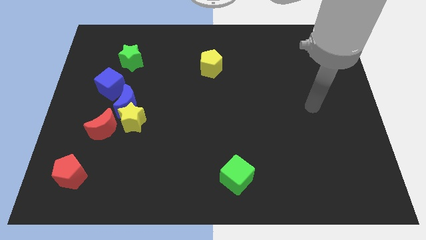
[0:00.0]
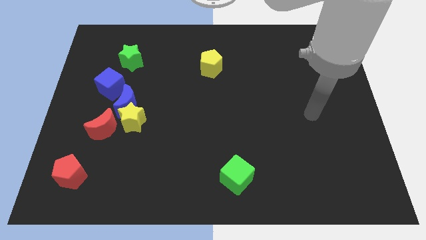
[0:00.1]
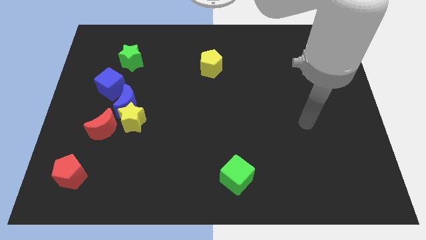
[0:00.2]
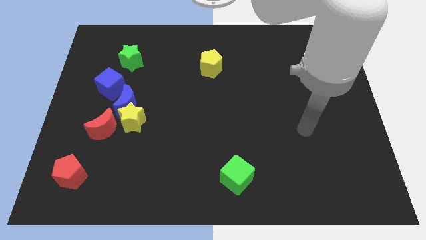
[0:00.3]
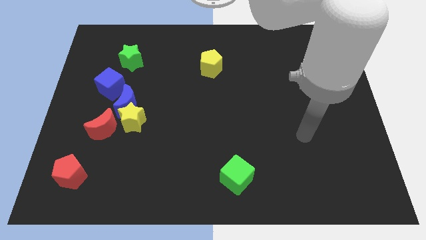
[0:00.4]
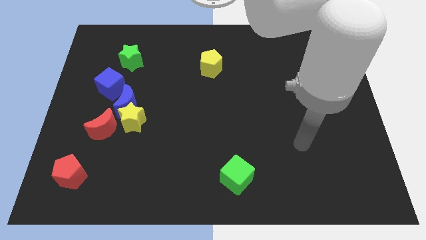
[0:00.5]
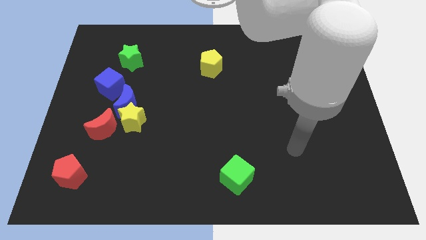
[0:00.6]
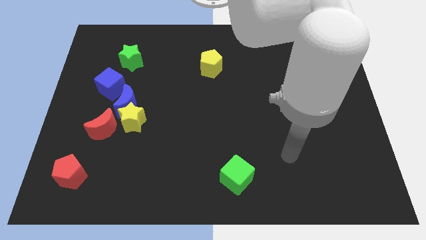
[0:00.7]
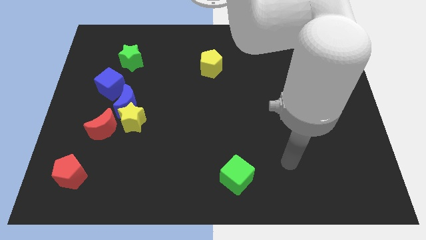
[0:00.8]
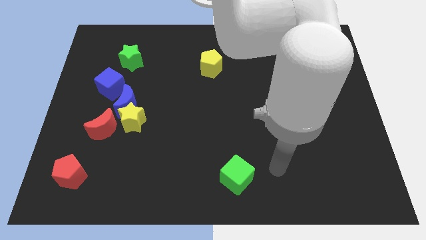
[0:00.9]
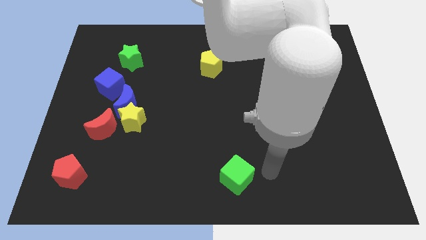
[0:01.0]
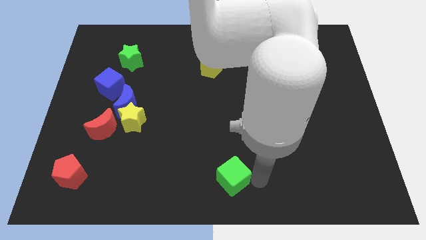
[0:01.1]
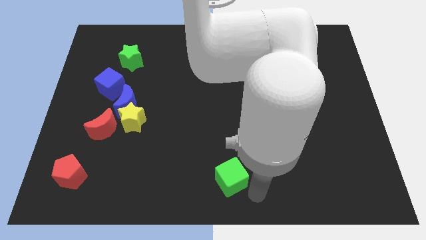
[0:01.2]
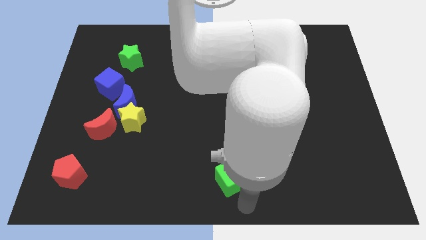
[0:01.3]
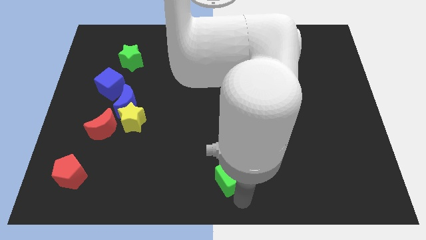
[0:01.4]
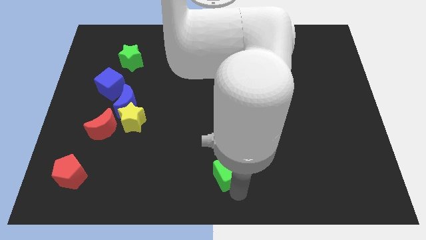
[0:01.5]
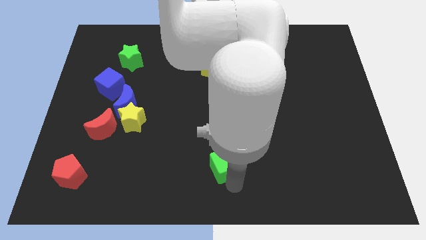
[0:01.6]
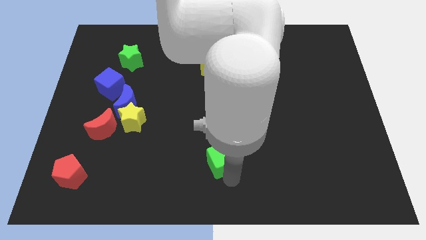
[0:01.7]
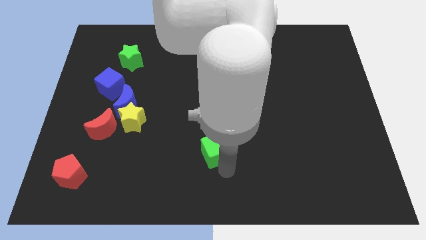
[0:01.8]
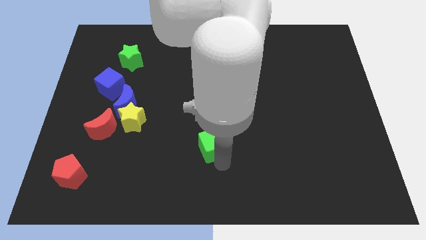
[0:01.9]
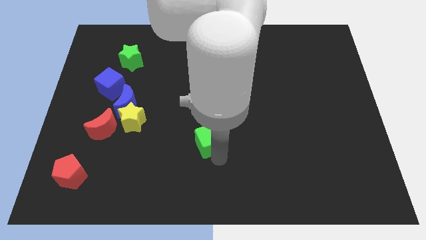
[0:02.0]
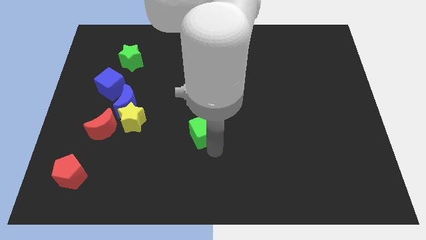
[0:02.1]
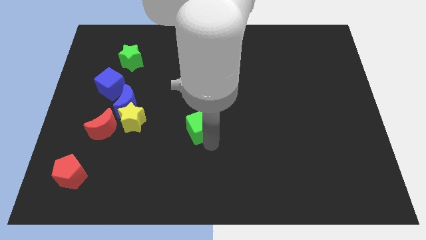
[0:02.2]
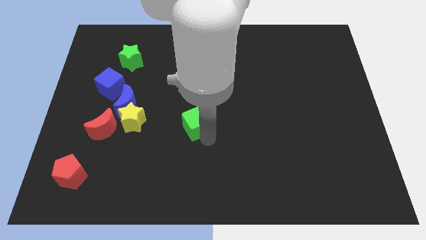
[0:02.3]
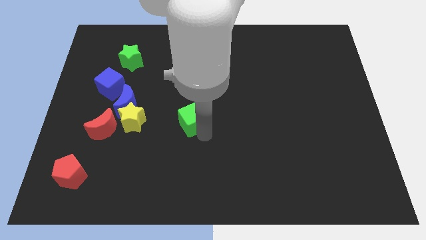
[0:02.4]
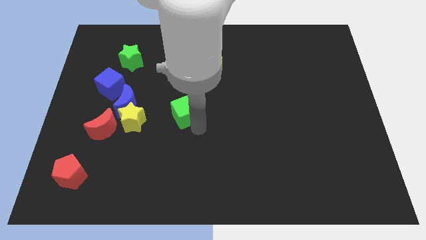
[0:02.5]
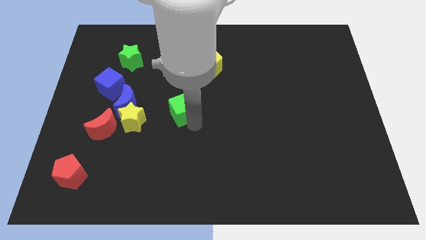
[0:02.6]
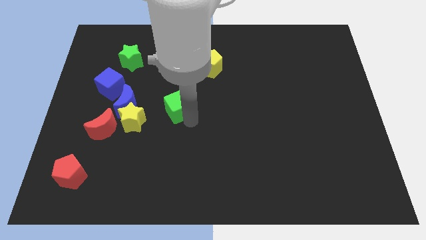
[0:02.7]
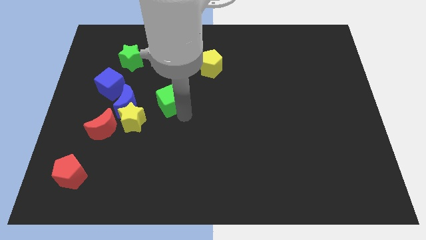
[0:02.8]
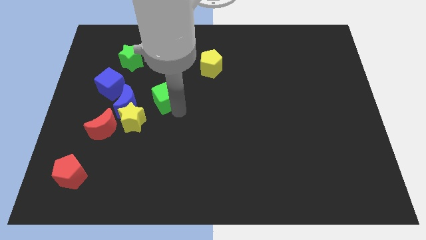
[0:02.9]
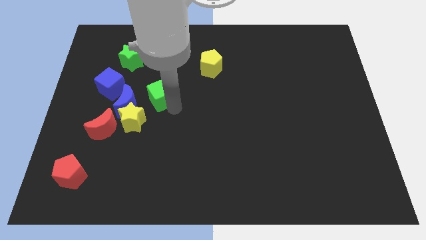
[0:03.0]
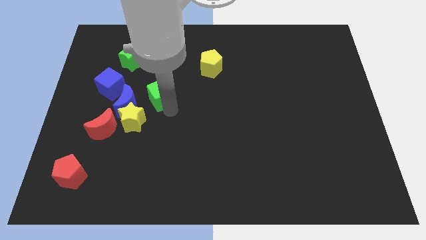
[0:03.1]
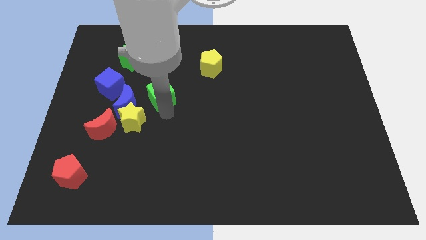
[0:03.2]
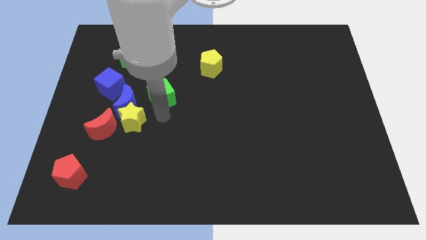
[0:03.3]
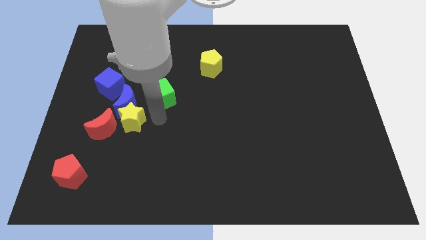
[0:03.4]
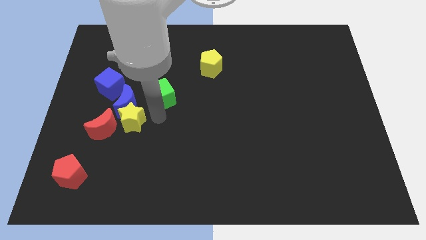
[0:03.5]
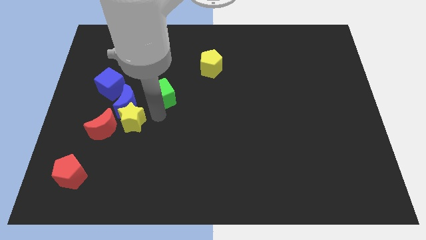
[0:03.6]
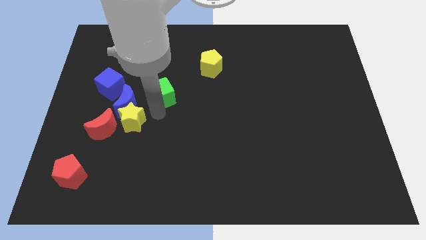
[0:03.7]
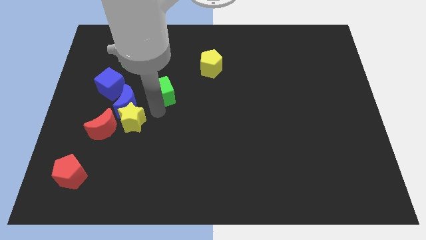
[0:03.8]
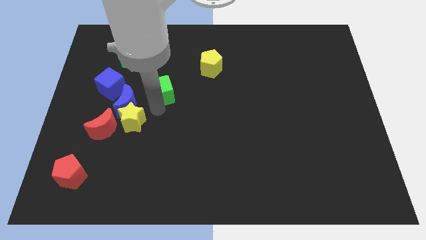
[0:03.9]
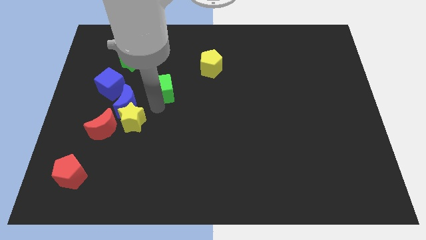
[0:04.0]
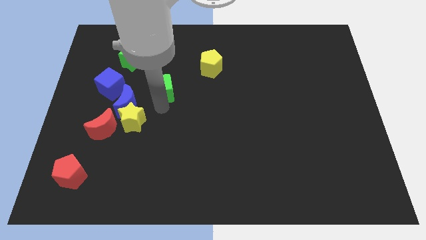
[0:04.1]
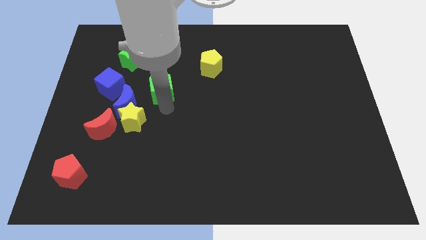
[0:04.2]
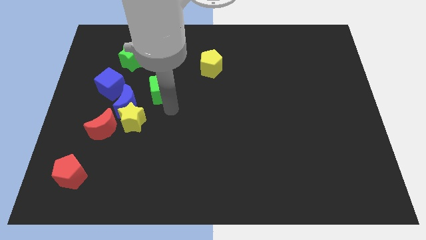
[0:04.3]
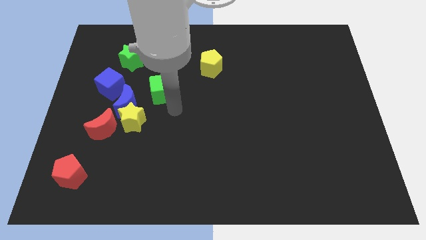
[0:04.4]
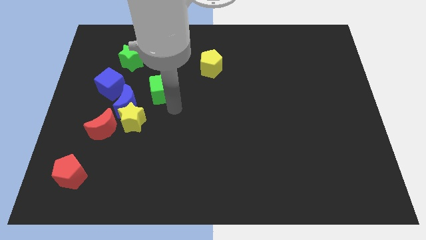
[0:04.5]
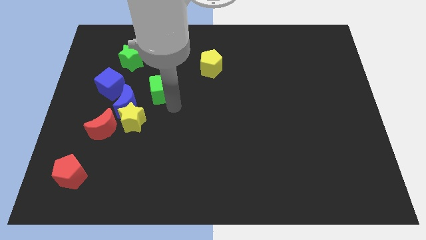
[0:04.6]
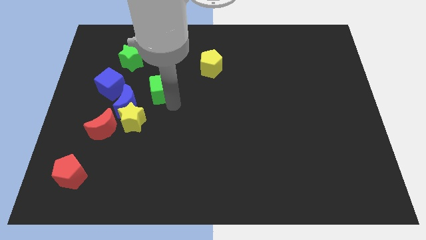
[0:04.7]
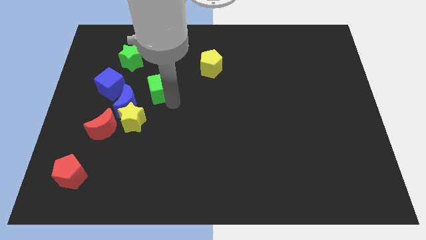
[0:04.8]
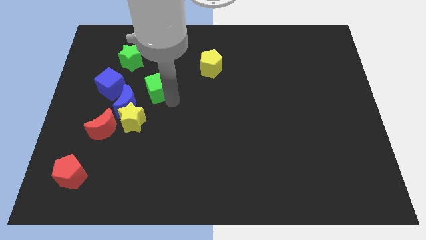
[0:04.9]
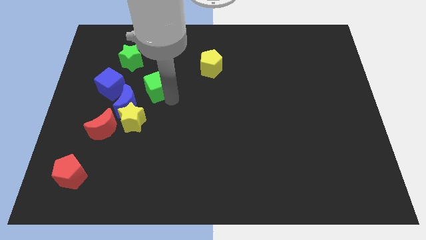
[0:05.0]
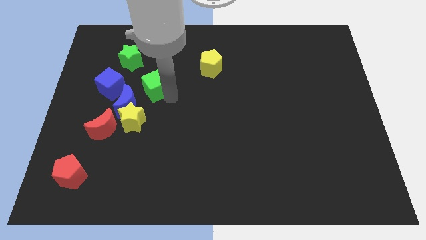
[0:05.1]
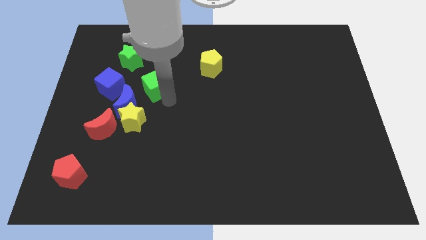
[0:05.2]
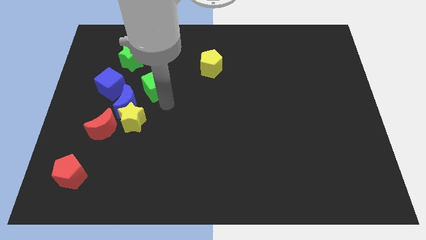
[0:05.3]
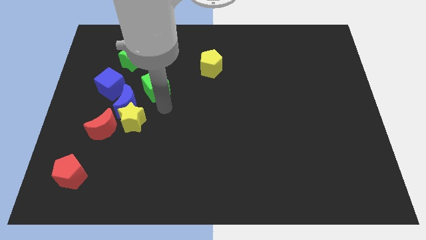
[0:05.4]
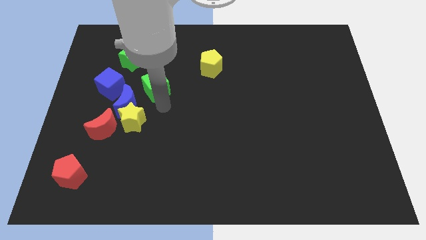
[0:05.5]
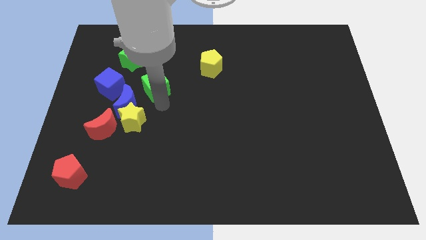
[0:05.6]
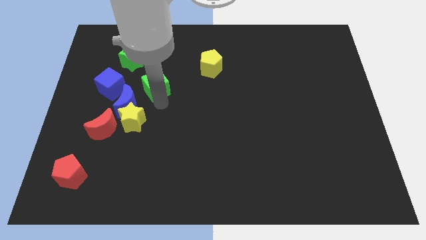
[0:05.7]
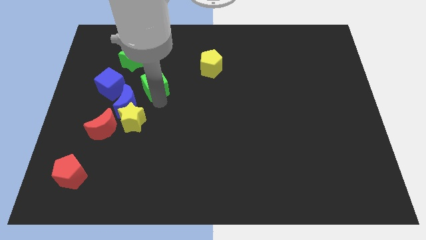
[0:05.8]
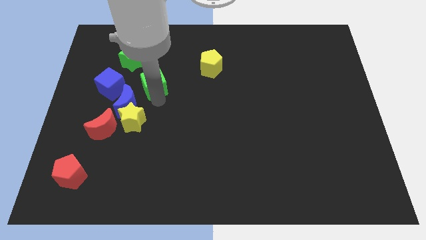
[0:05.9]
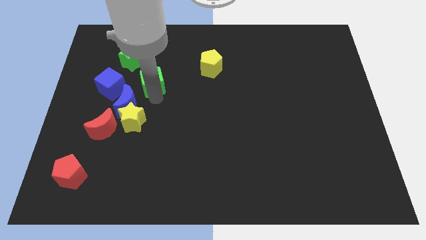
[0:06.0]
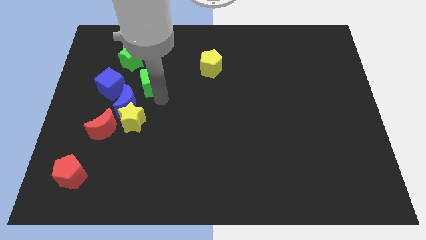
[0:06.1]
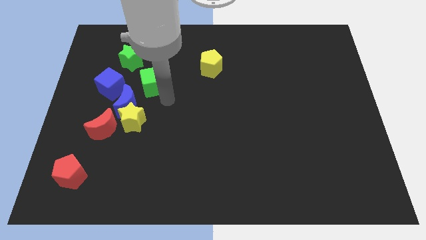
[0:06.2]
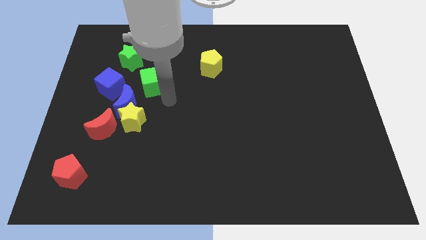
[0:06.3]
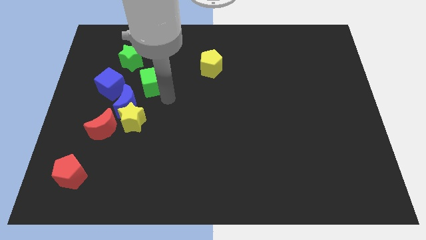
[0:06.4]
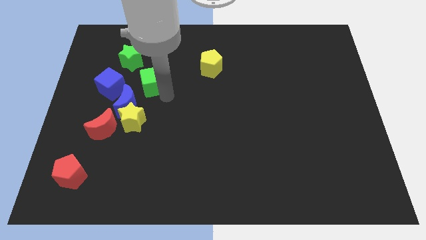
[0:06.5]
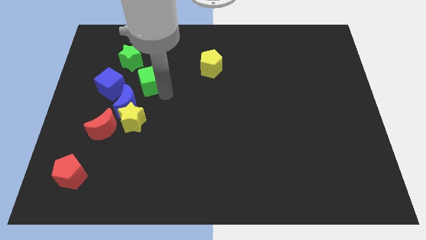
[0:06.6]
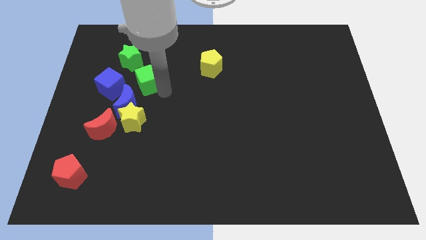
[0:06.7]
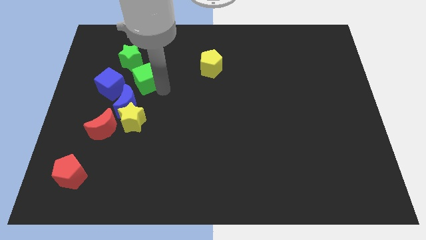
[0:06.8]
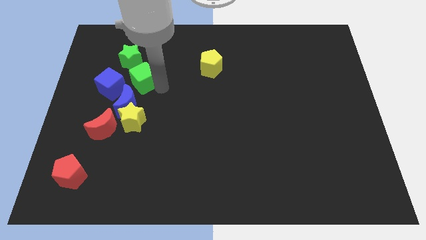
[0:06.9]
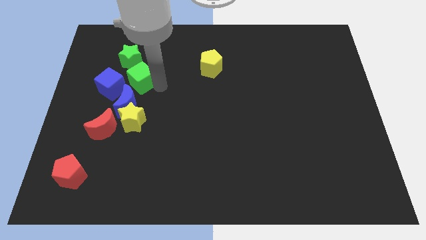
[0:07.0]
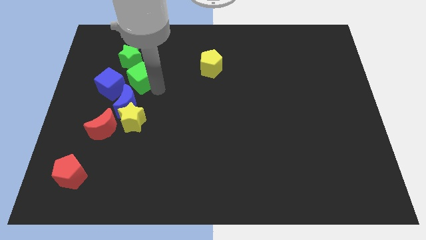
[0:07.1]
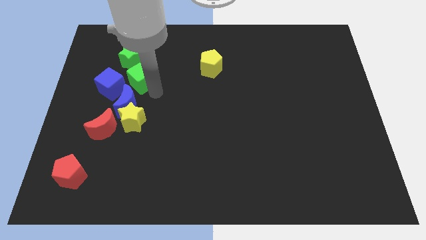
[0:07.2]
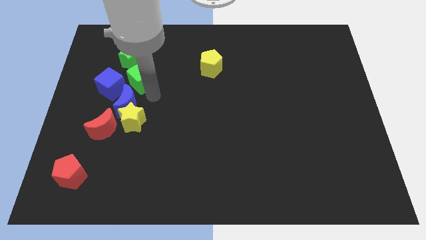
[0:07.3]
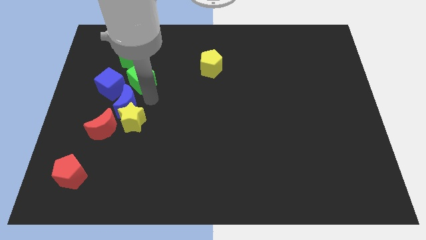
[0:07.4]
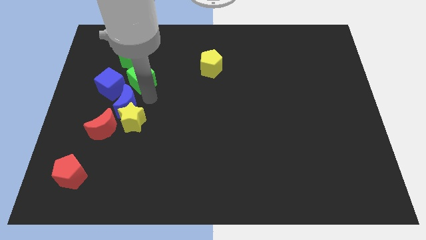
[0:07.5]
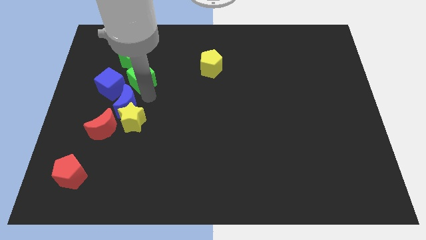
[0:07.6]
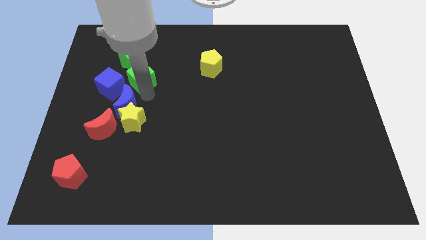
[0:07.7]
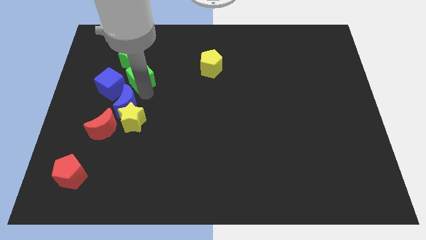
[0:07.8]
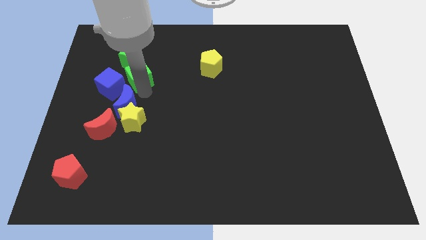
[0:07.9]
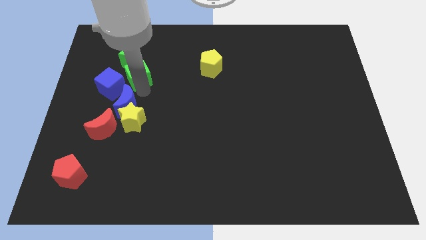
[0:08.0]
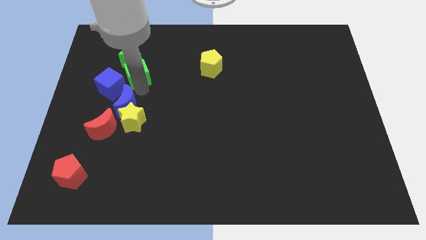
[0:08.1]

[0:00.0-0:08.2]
put the green cube close to the green star
